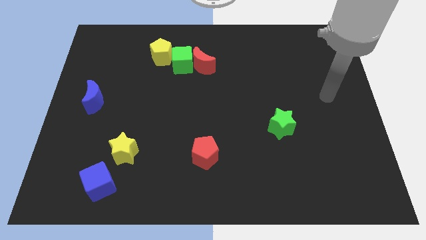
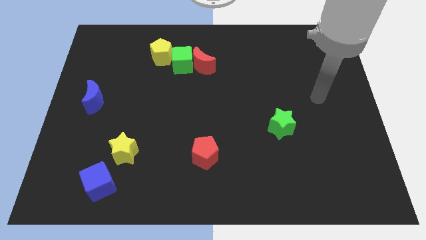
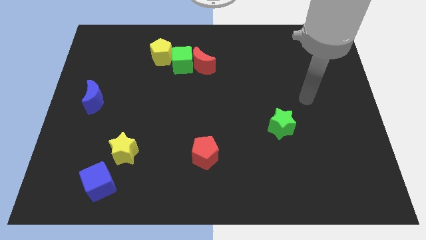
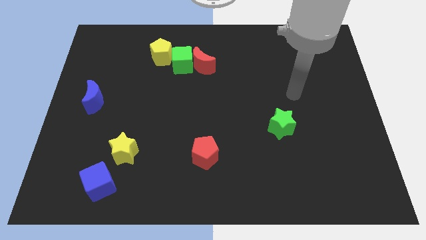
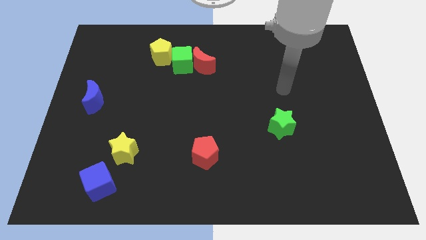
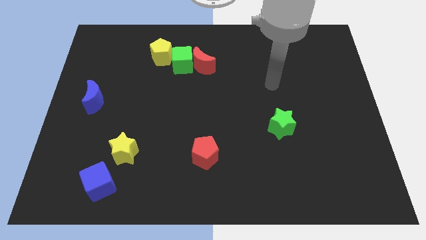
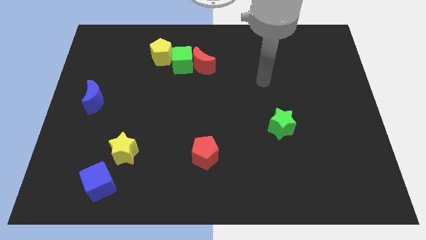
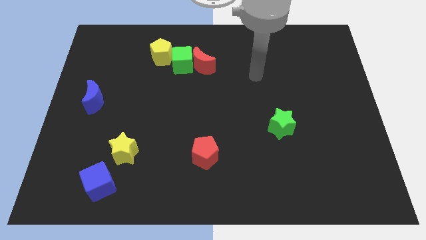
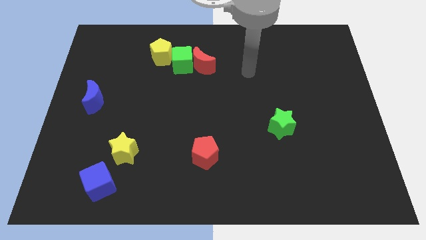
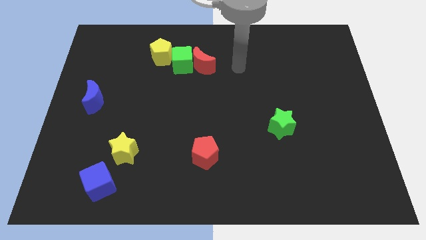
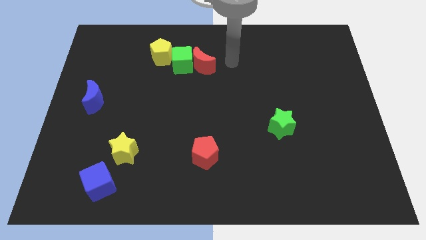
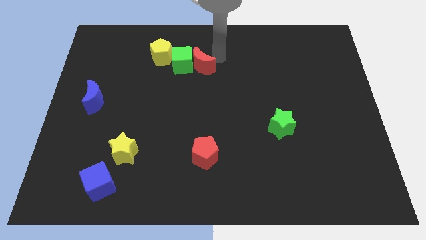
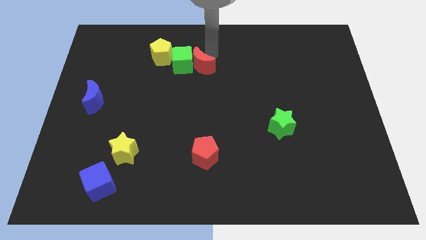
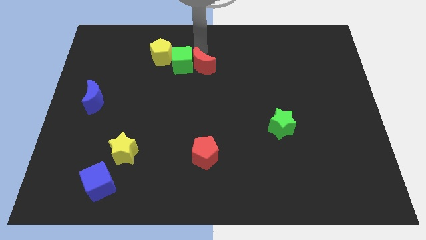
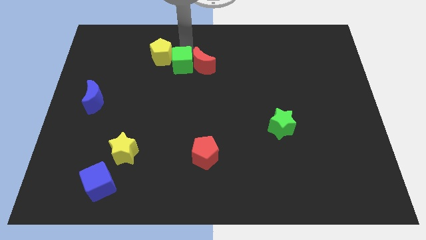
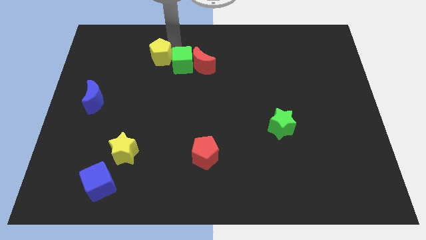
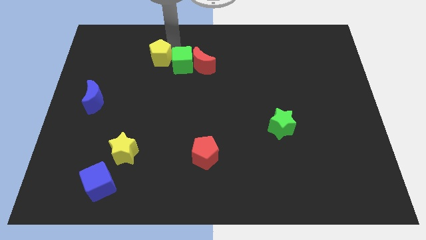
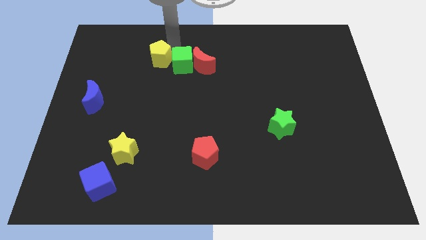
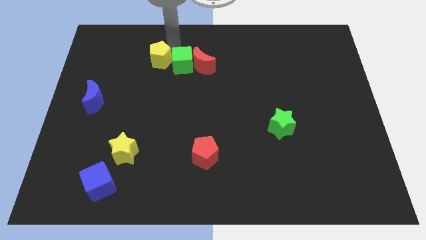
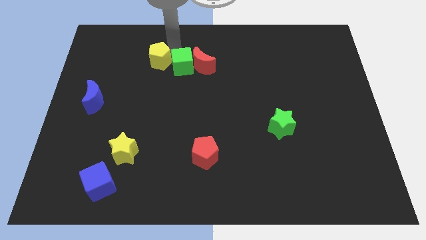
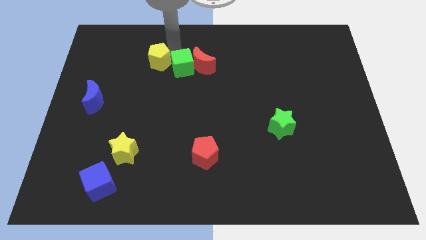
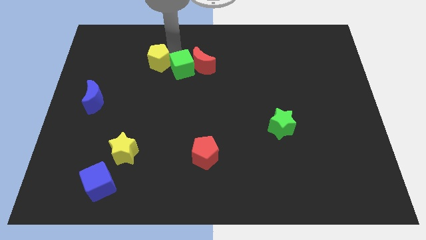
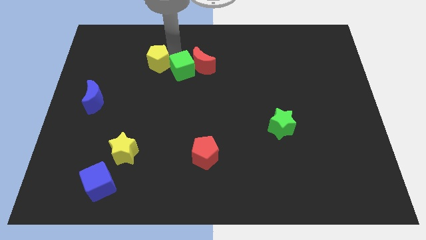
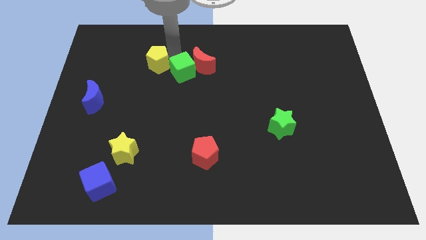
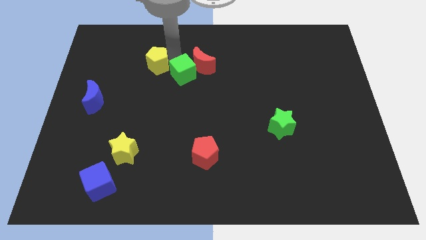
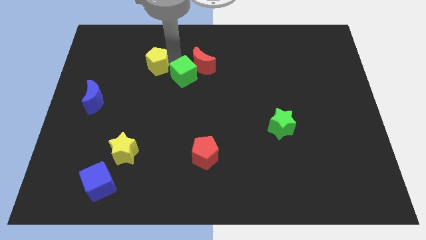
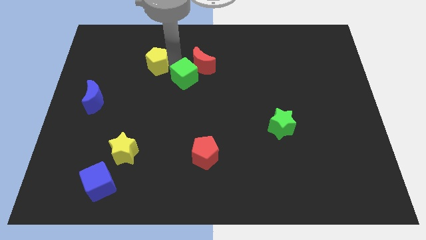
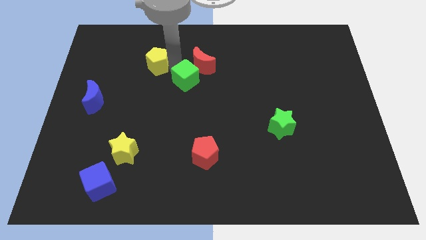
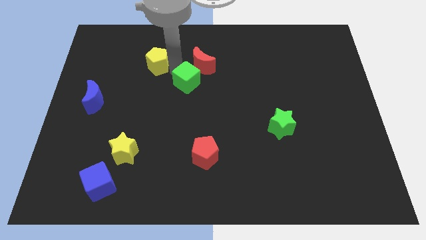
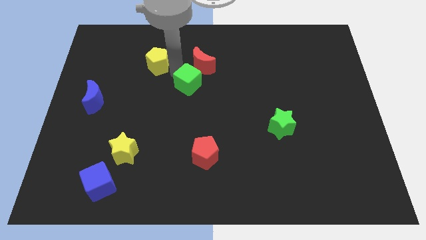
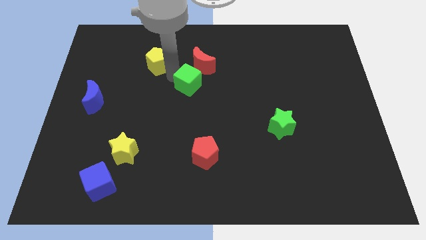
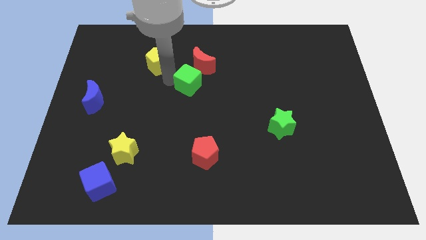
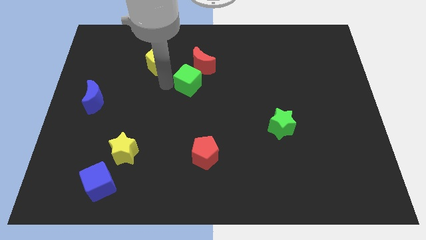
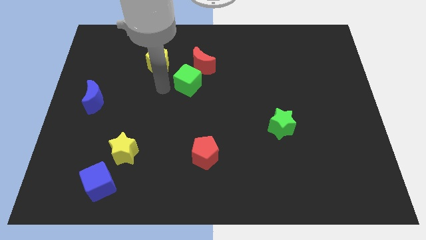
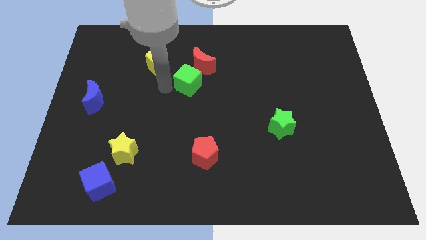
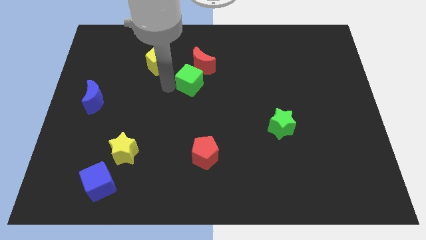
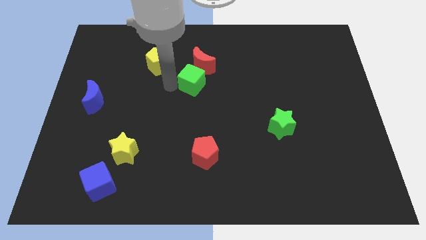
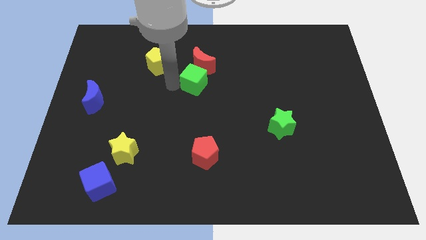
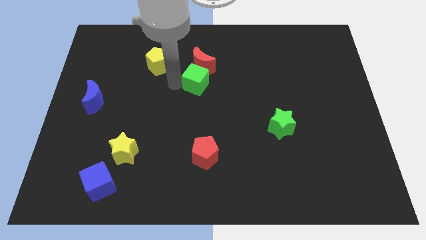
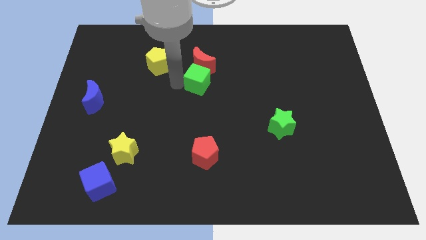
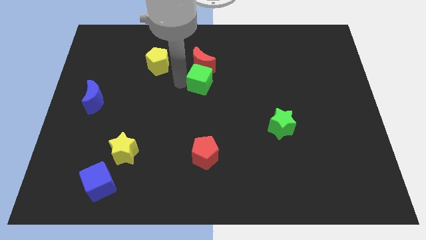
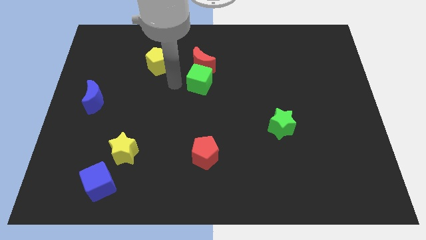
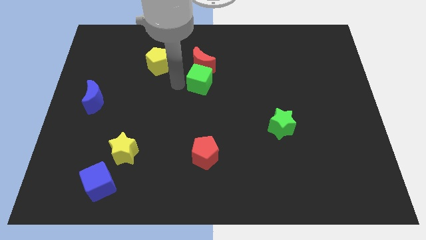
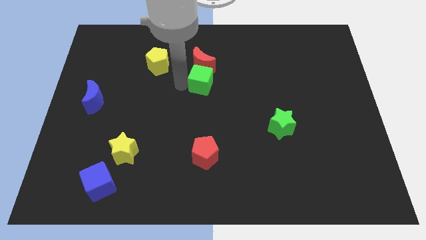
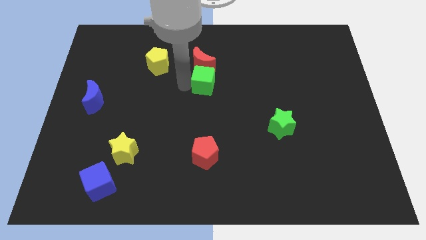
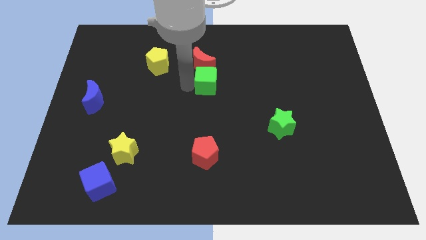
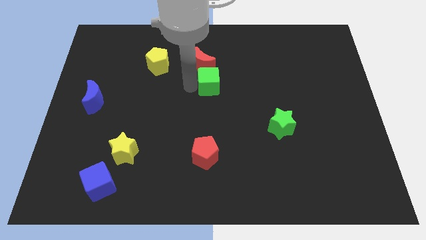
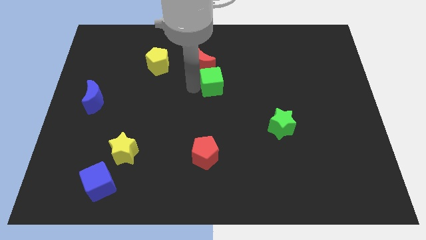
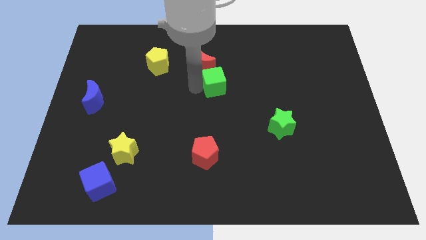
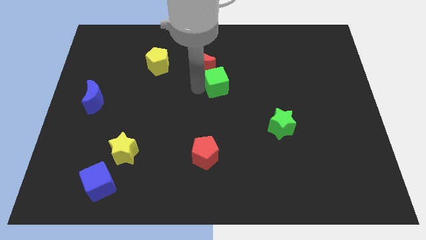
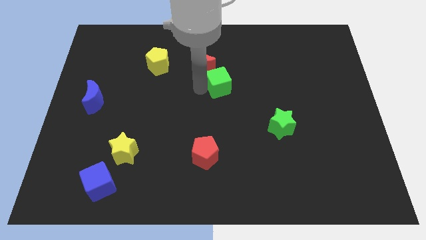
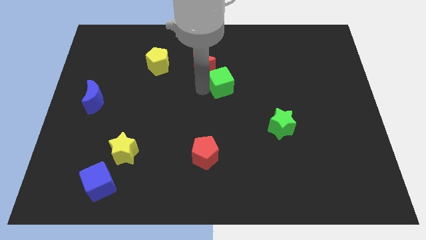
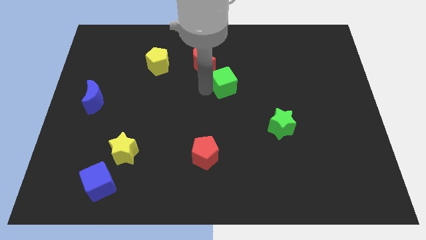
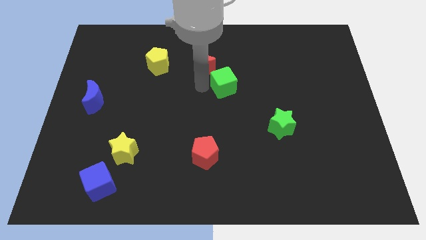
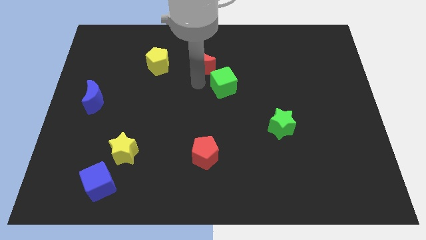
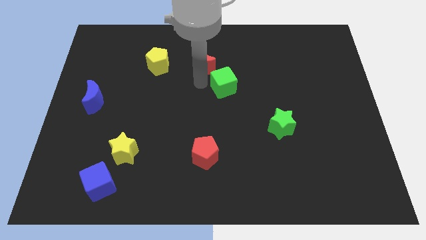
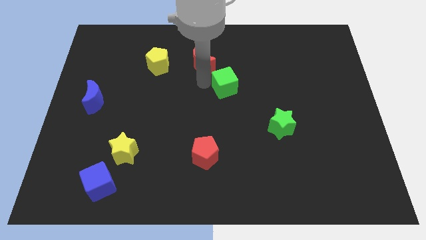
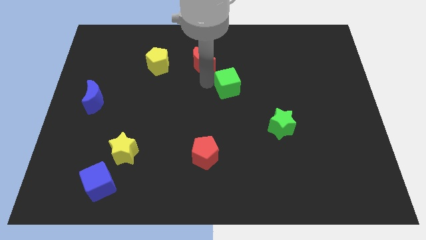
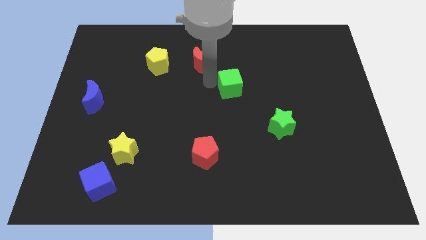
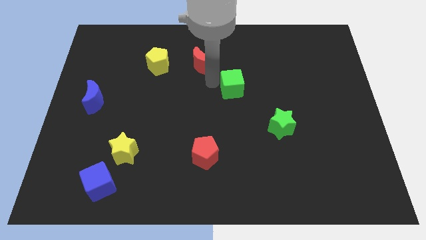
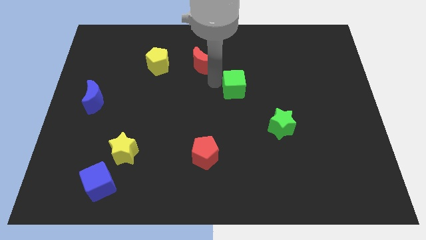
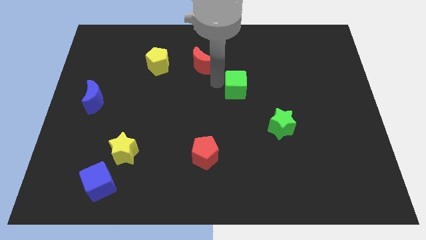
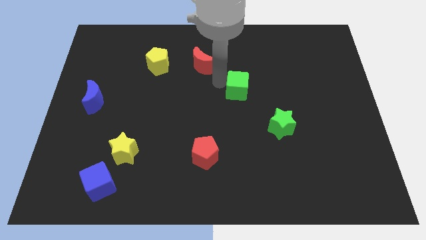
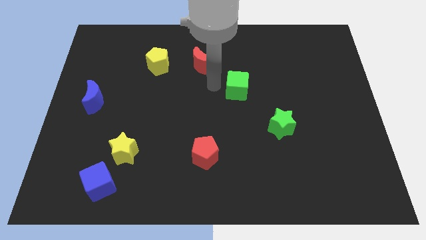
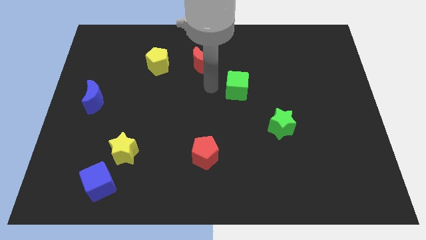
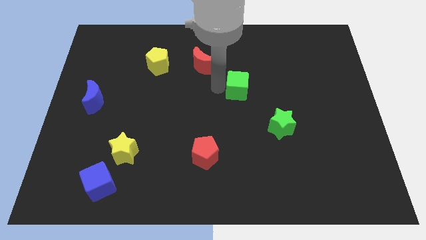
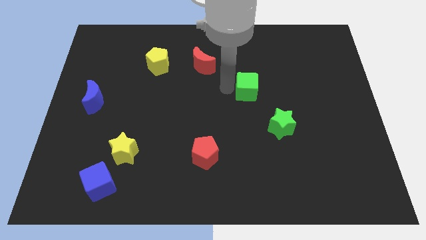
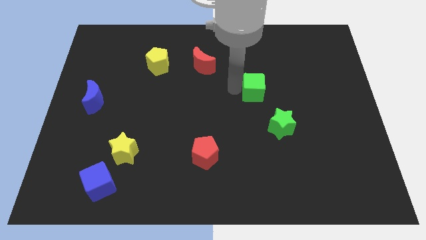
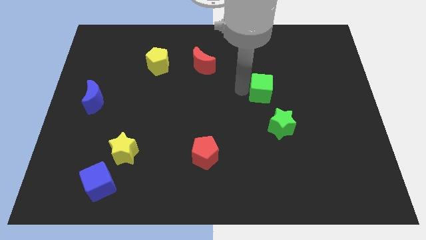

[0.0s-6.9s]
put the green cube above the green star

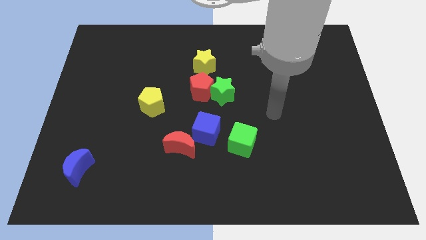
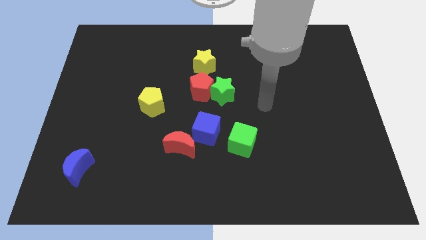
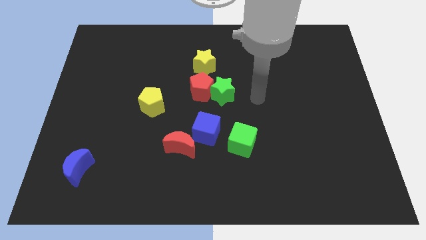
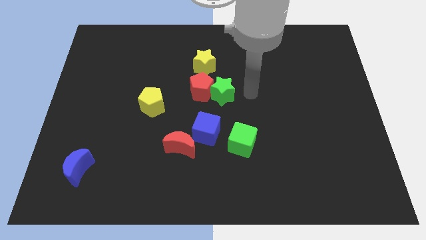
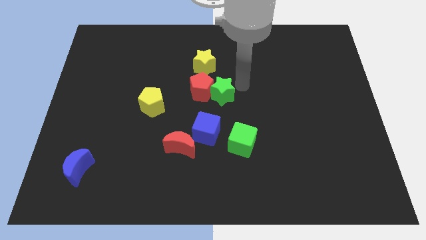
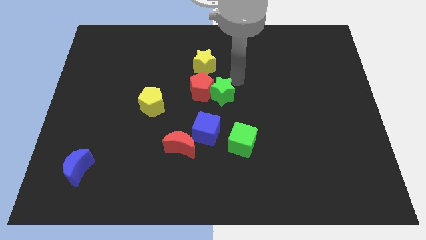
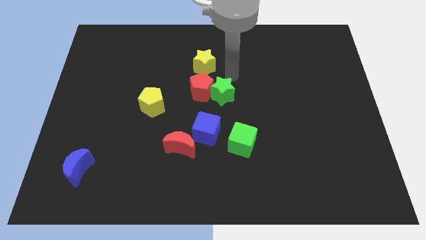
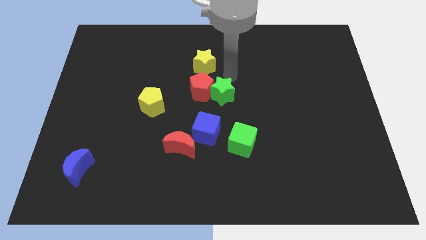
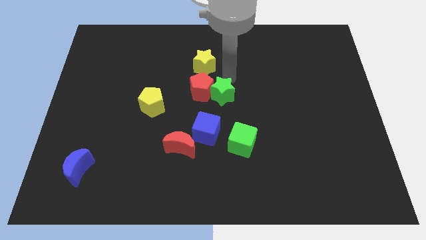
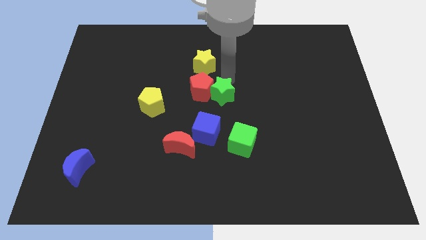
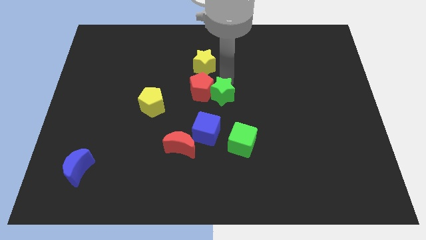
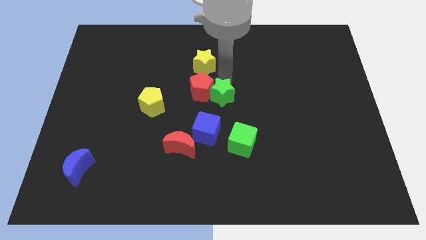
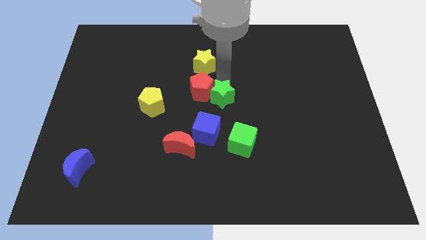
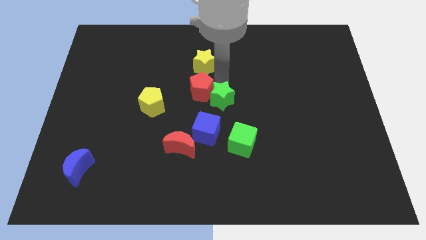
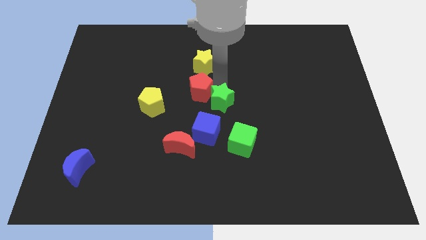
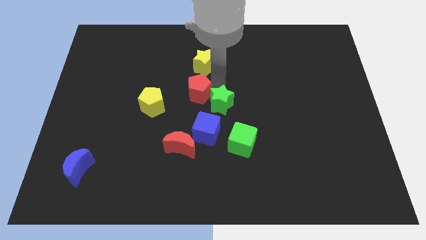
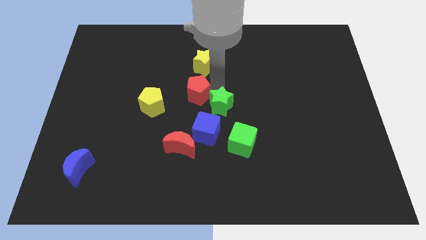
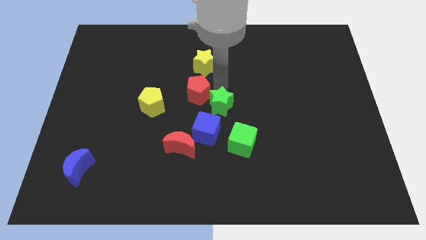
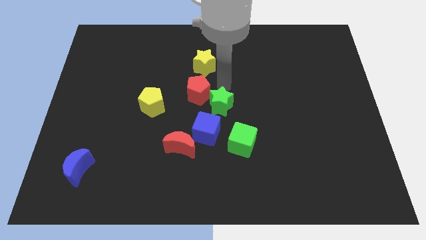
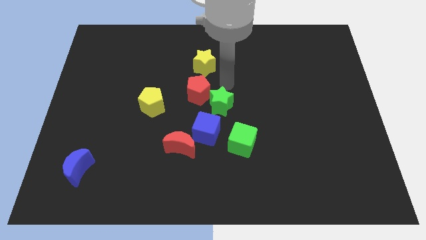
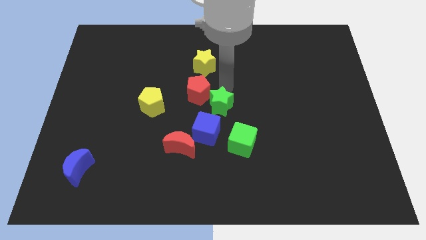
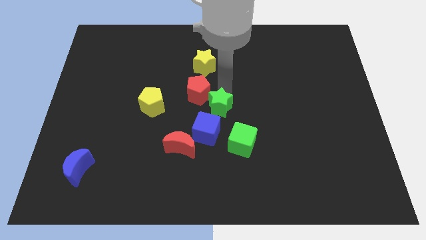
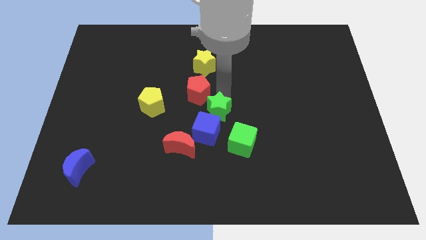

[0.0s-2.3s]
move the green star to the top right of the red moon
